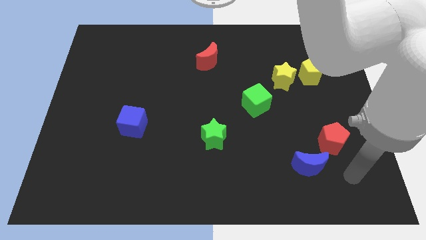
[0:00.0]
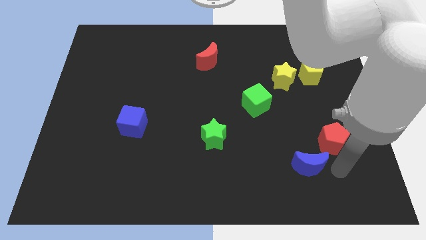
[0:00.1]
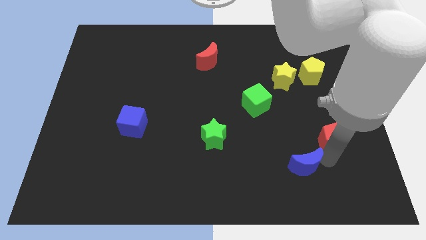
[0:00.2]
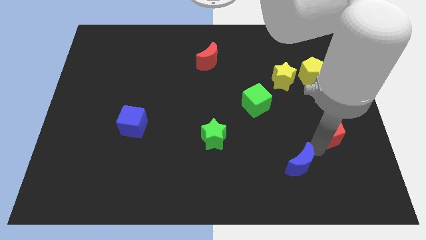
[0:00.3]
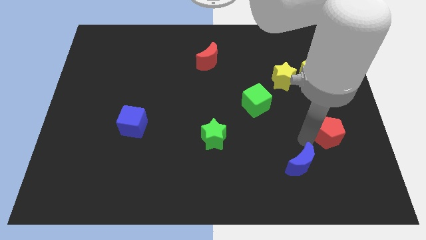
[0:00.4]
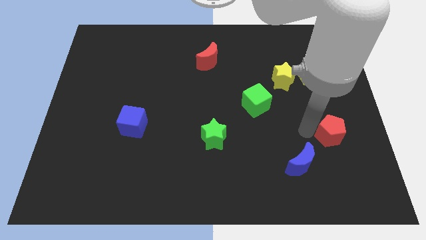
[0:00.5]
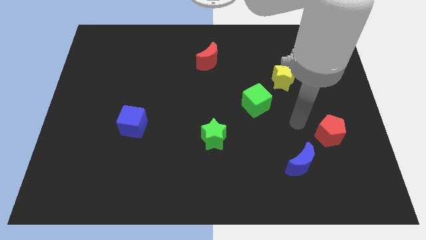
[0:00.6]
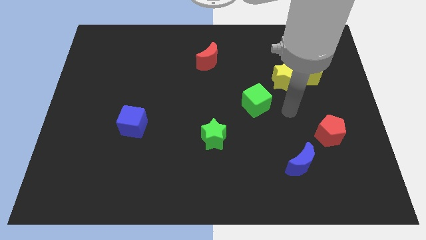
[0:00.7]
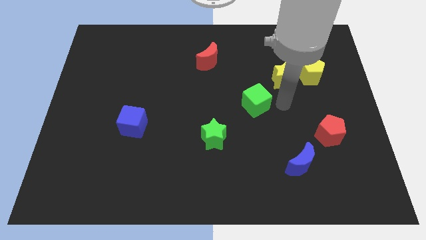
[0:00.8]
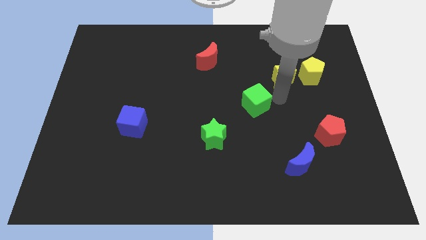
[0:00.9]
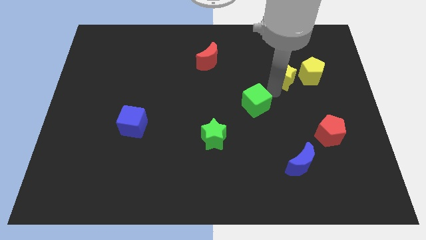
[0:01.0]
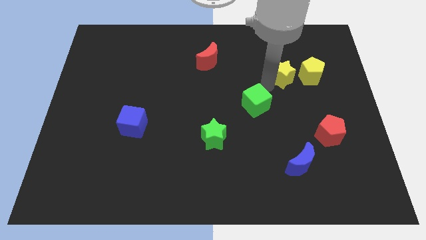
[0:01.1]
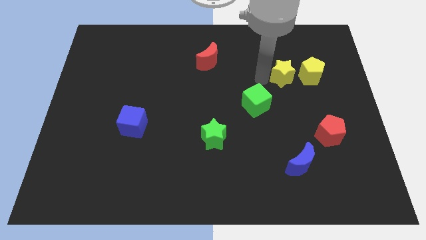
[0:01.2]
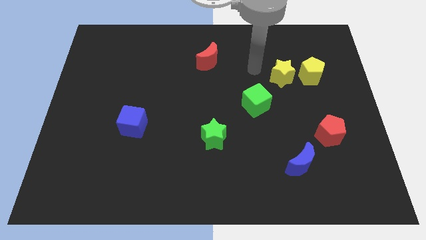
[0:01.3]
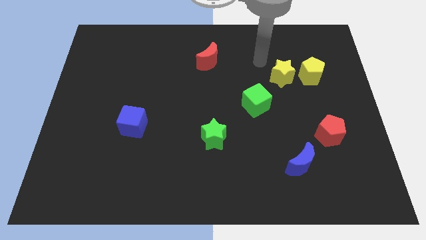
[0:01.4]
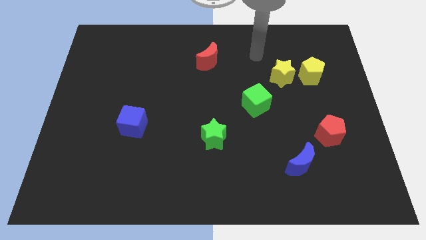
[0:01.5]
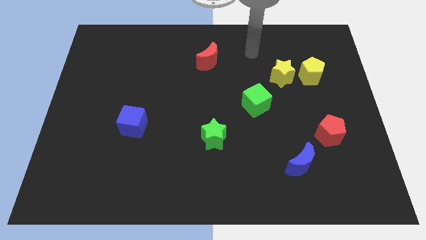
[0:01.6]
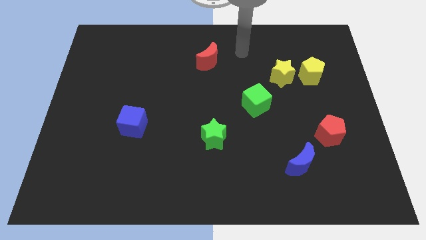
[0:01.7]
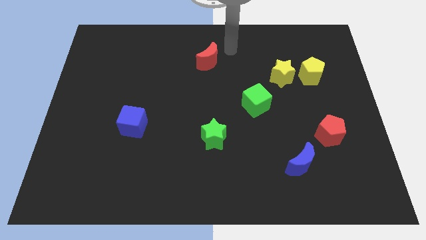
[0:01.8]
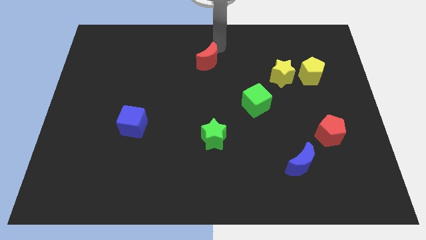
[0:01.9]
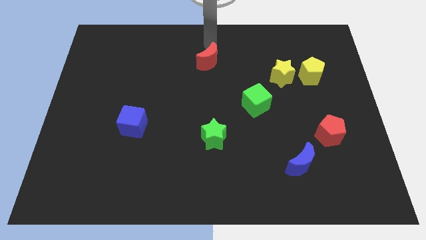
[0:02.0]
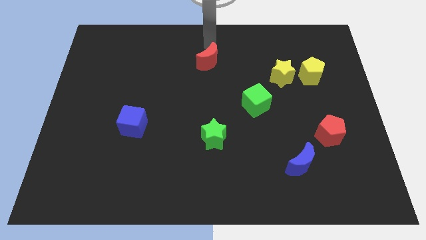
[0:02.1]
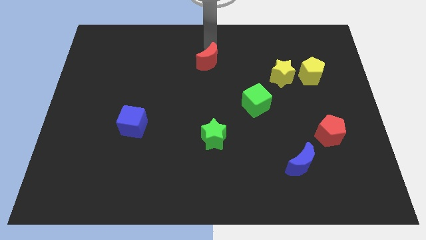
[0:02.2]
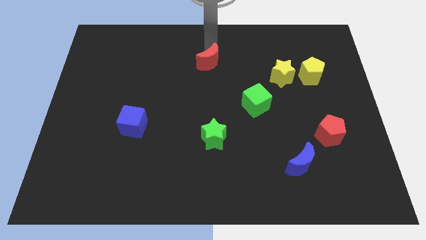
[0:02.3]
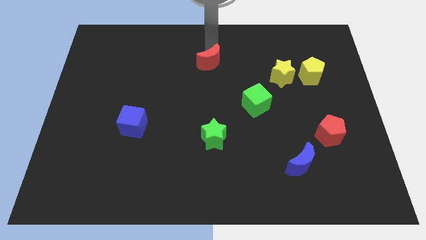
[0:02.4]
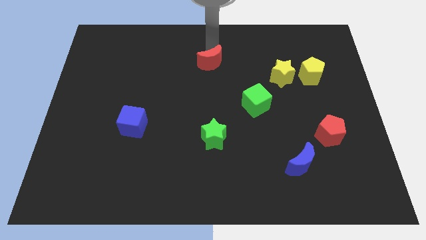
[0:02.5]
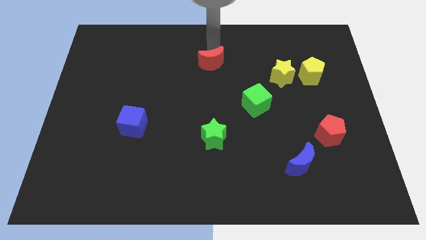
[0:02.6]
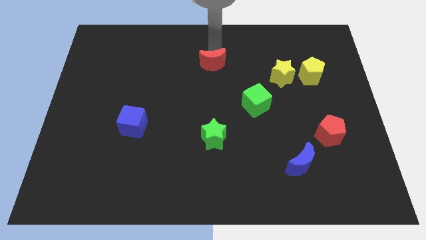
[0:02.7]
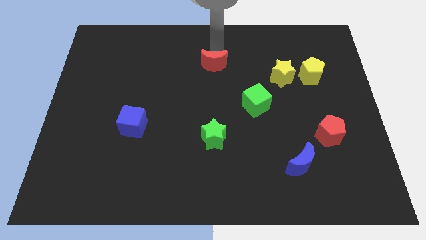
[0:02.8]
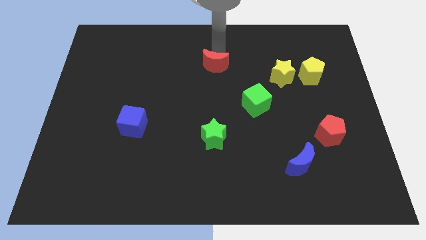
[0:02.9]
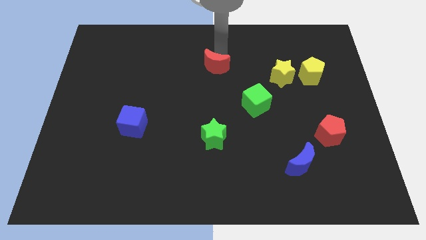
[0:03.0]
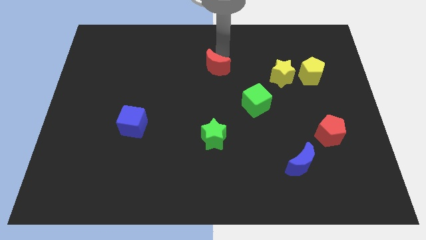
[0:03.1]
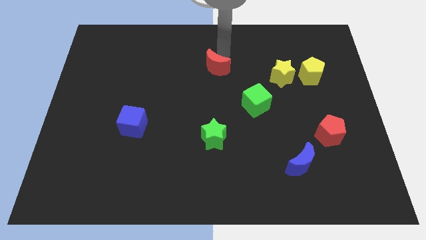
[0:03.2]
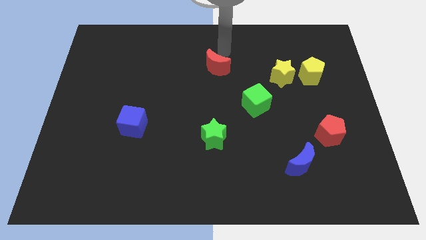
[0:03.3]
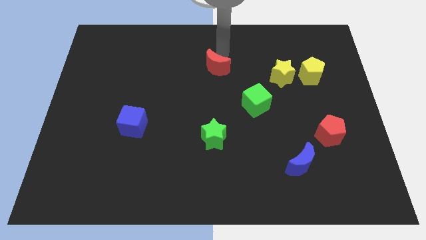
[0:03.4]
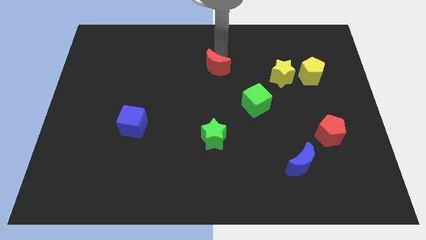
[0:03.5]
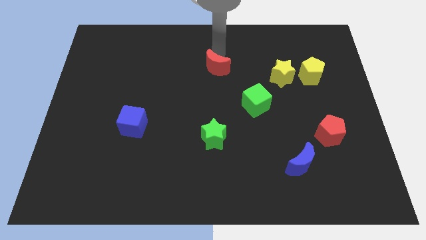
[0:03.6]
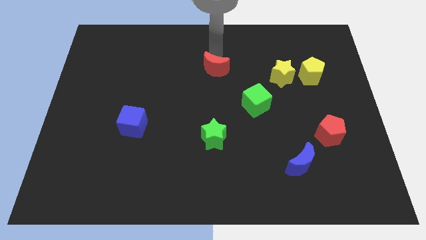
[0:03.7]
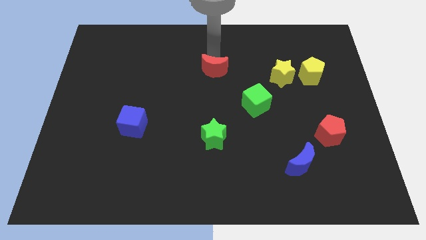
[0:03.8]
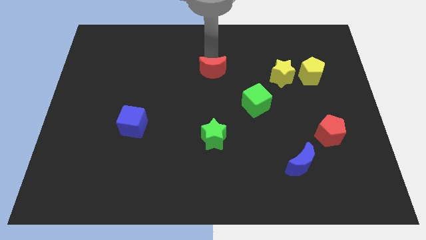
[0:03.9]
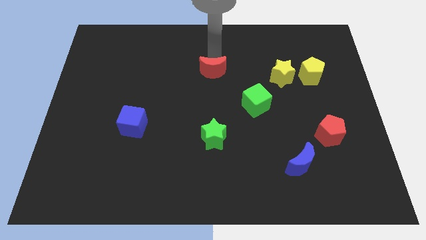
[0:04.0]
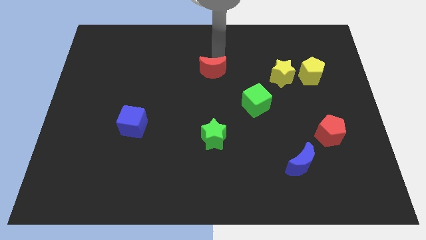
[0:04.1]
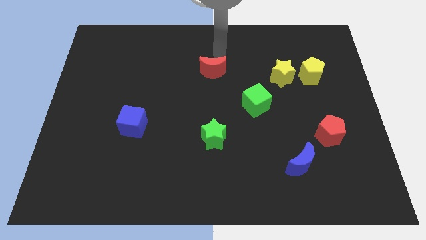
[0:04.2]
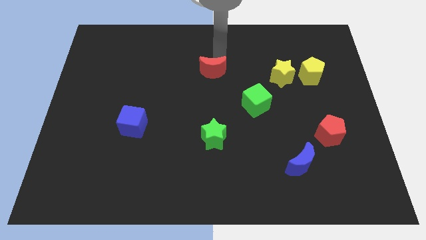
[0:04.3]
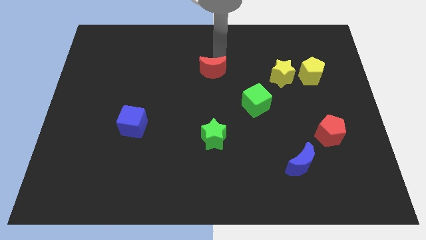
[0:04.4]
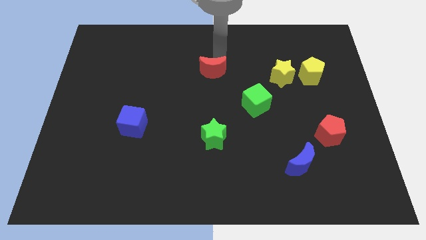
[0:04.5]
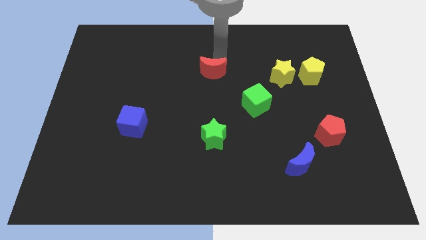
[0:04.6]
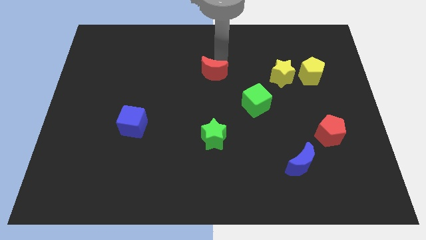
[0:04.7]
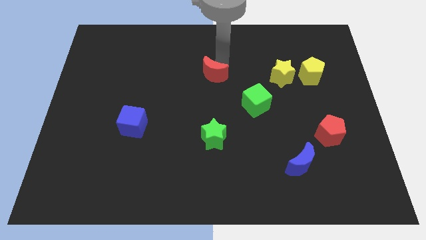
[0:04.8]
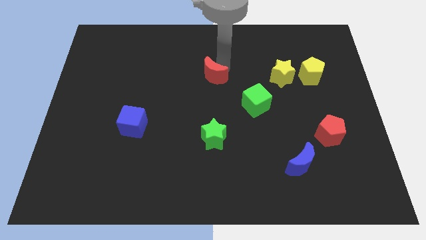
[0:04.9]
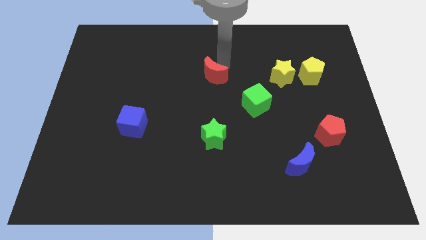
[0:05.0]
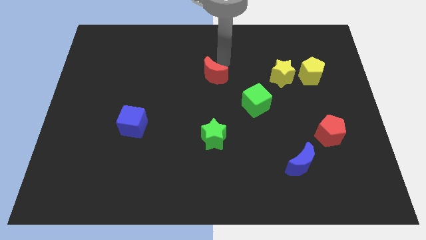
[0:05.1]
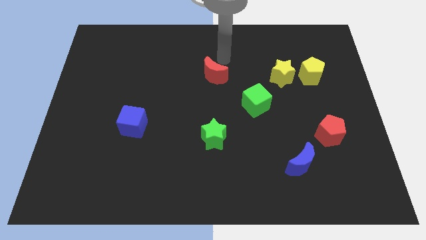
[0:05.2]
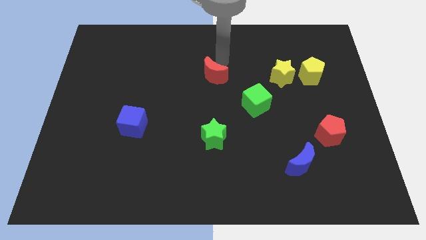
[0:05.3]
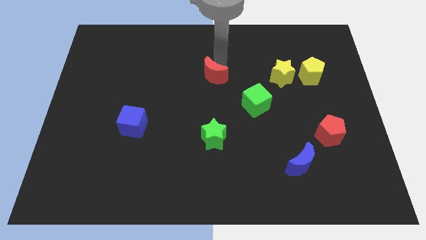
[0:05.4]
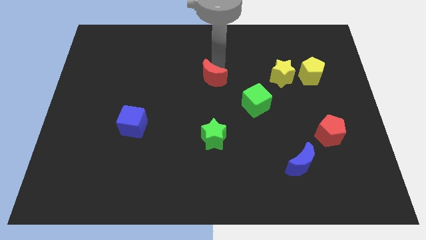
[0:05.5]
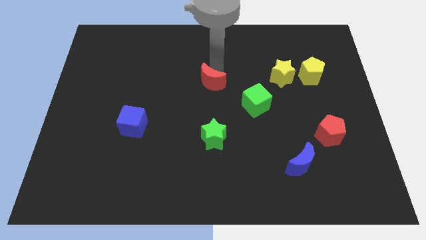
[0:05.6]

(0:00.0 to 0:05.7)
move the red moon down a bit

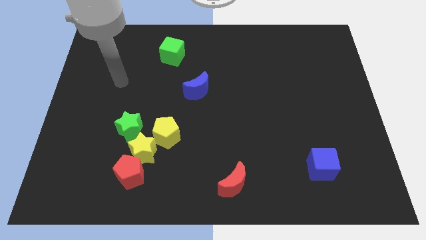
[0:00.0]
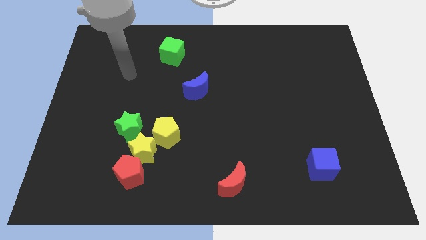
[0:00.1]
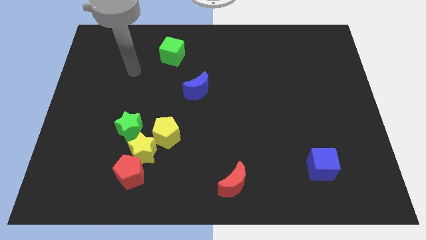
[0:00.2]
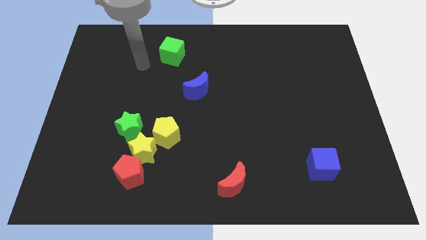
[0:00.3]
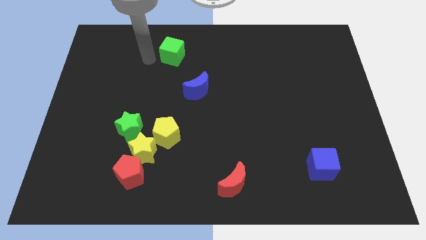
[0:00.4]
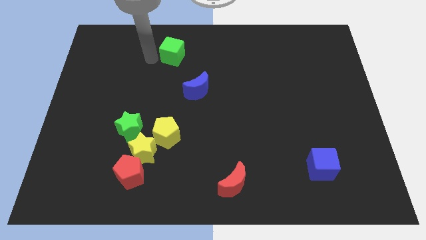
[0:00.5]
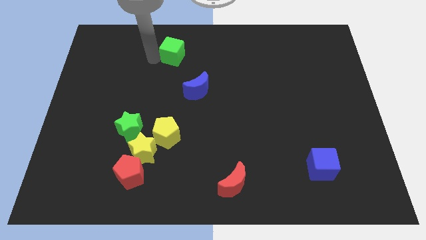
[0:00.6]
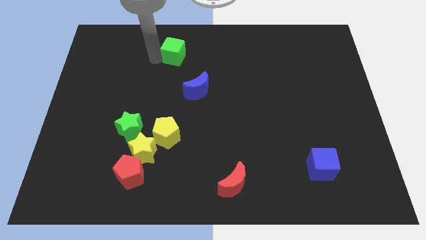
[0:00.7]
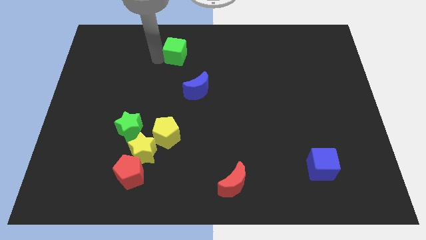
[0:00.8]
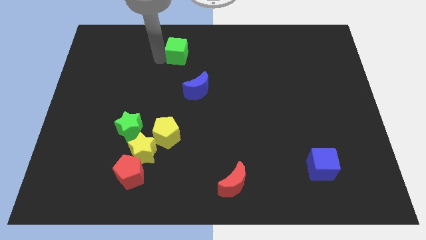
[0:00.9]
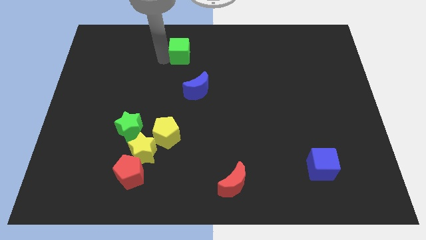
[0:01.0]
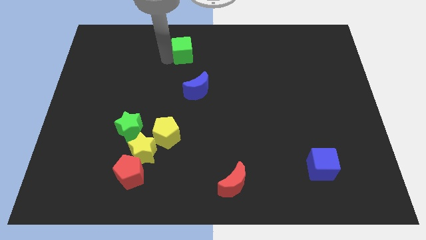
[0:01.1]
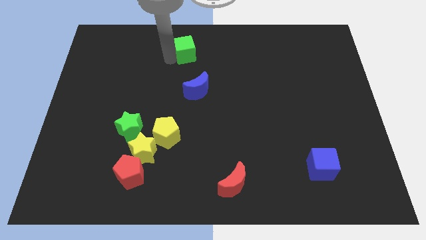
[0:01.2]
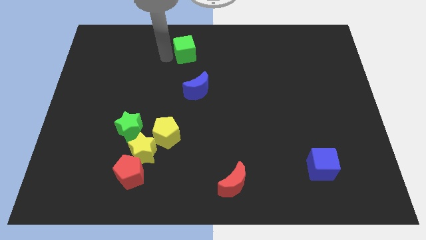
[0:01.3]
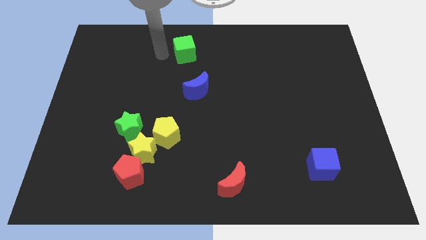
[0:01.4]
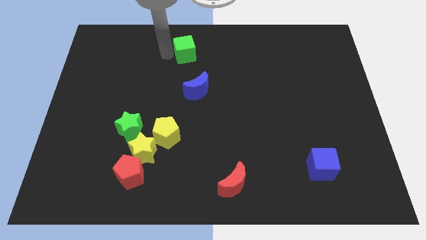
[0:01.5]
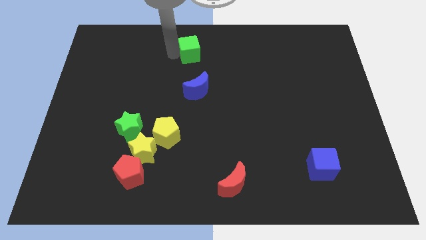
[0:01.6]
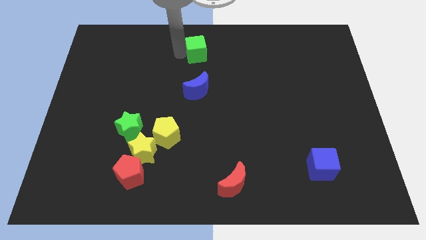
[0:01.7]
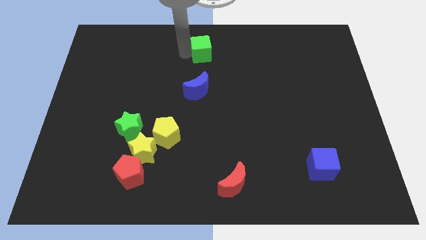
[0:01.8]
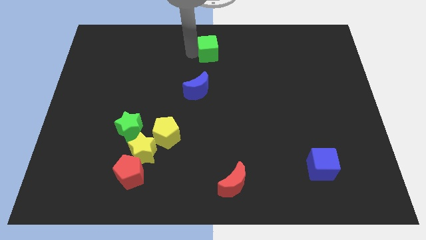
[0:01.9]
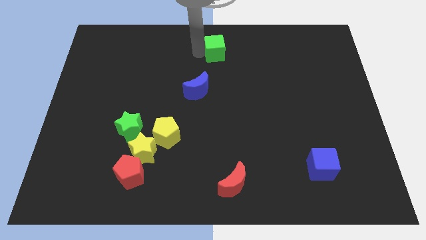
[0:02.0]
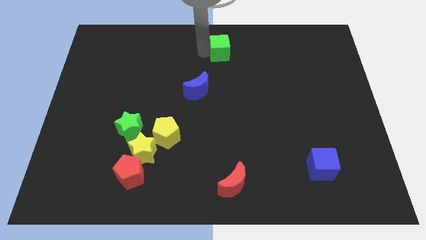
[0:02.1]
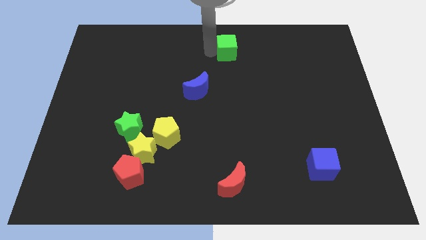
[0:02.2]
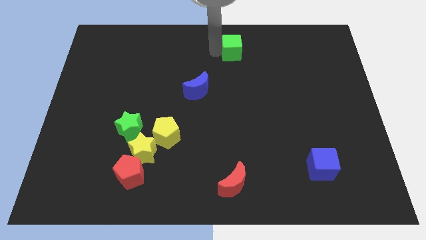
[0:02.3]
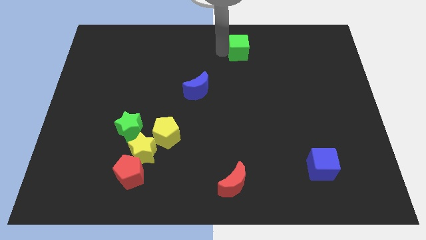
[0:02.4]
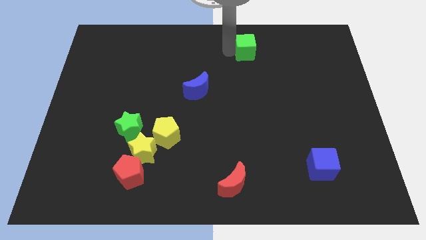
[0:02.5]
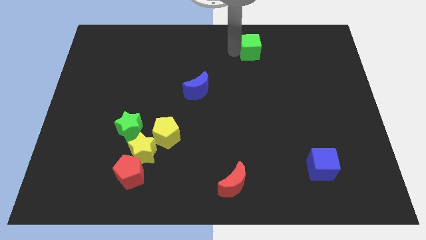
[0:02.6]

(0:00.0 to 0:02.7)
slide the green cube to the right

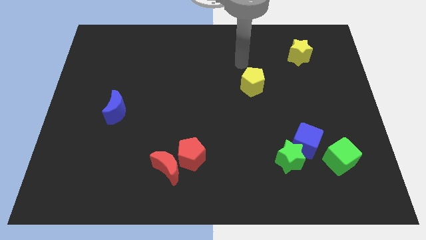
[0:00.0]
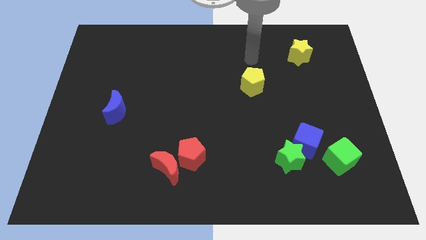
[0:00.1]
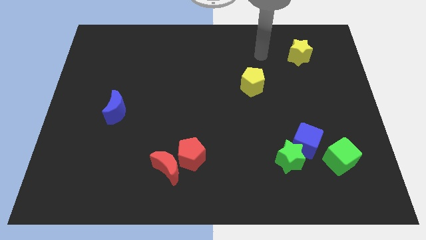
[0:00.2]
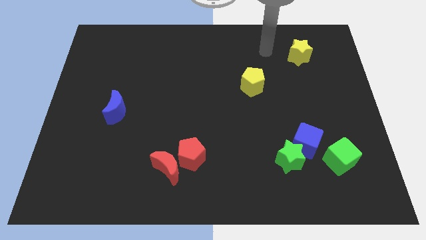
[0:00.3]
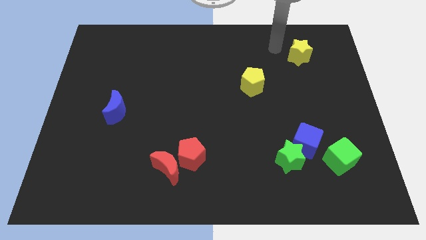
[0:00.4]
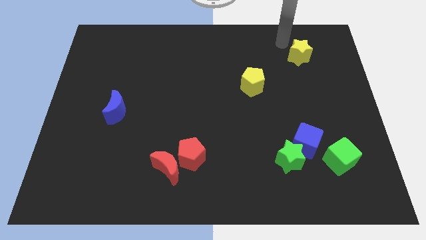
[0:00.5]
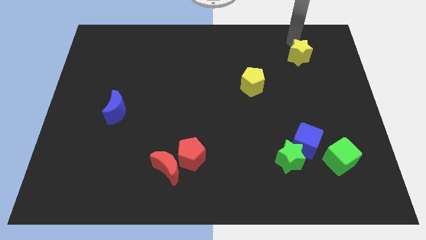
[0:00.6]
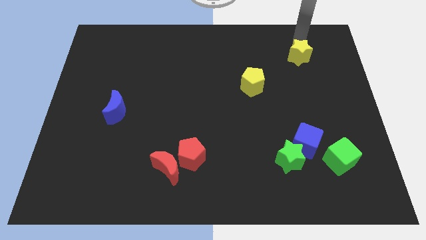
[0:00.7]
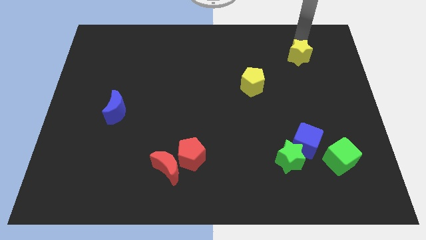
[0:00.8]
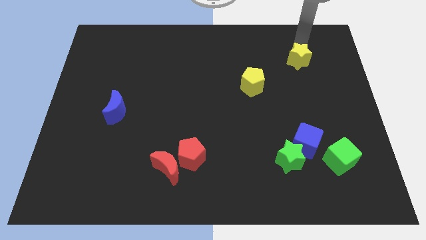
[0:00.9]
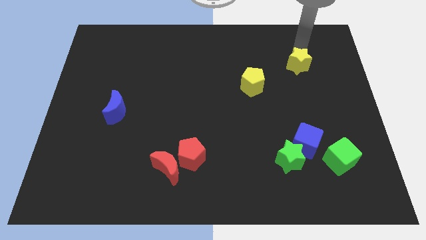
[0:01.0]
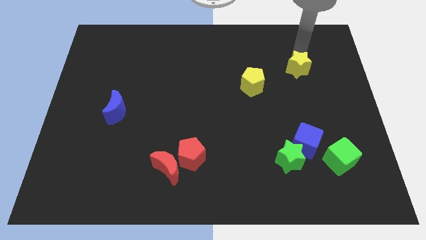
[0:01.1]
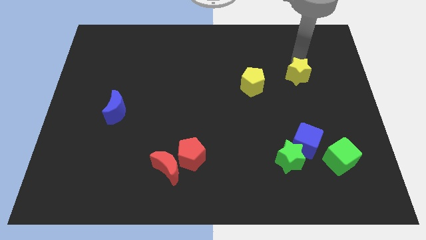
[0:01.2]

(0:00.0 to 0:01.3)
slightly move the yellow star down
